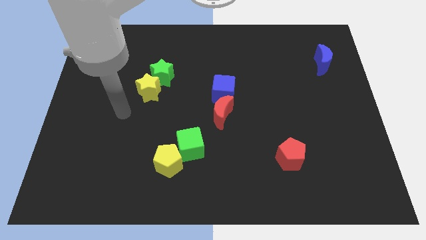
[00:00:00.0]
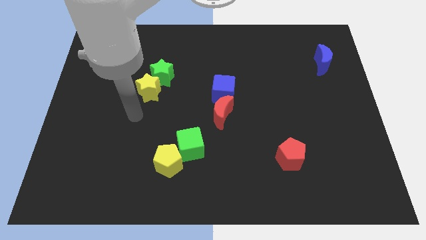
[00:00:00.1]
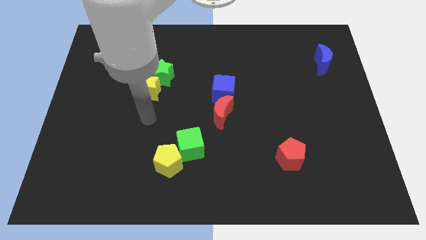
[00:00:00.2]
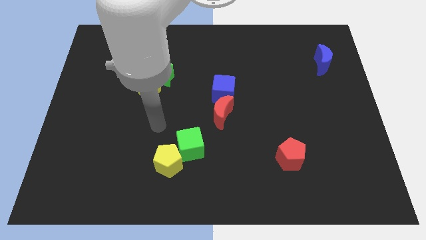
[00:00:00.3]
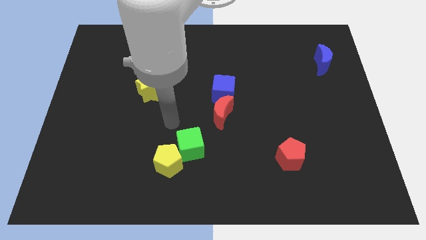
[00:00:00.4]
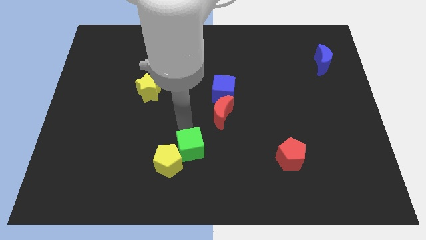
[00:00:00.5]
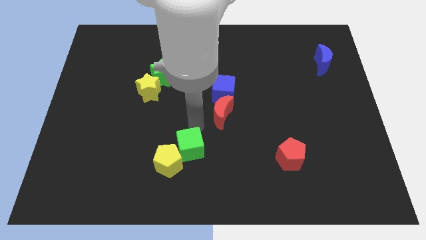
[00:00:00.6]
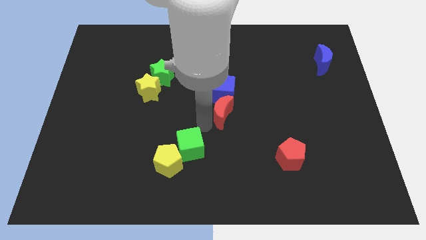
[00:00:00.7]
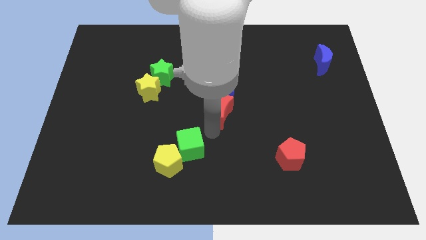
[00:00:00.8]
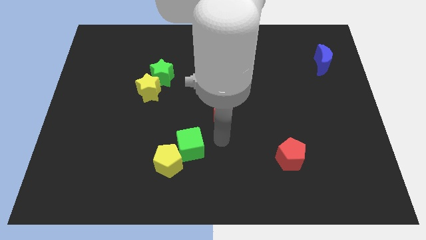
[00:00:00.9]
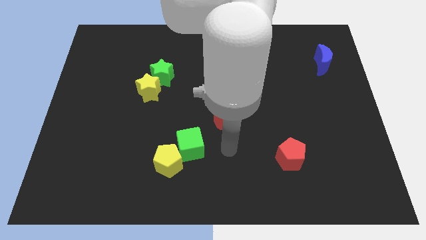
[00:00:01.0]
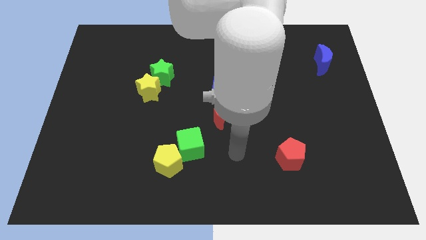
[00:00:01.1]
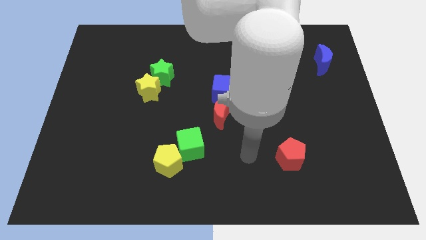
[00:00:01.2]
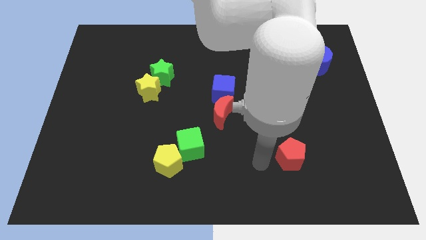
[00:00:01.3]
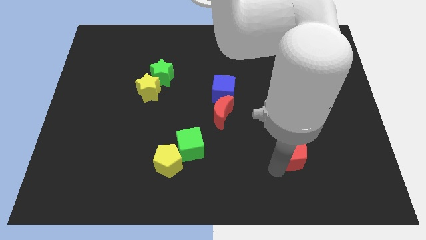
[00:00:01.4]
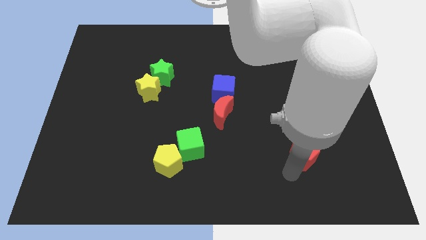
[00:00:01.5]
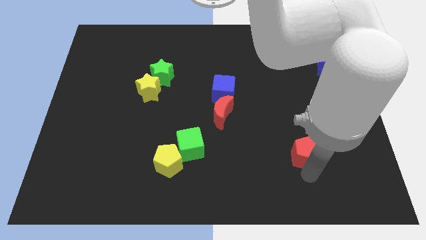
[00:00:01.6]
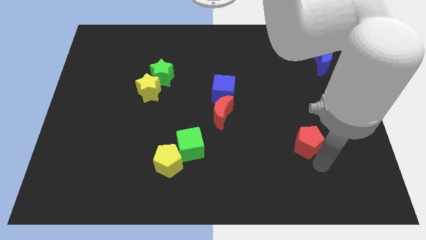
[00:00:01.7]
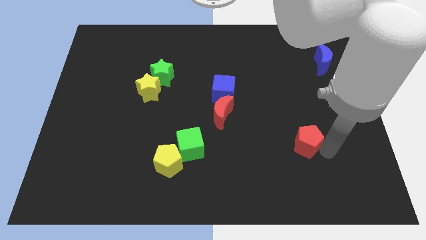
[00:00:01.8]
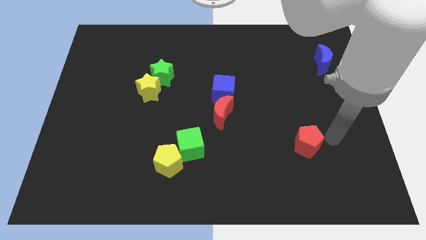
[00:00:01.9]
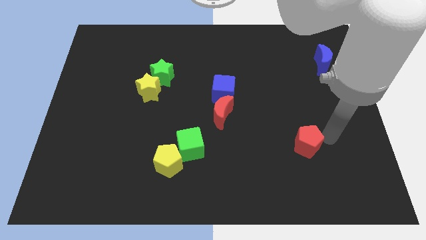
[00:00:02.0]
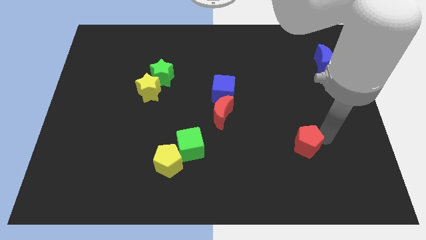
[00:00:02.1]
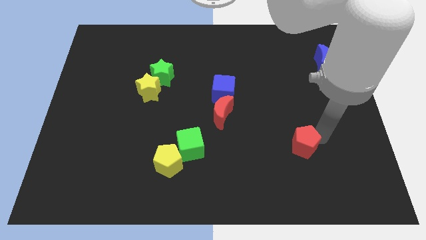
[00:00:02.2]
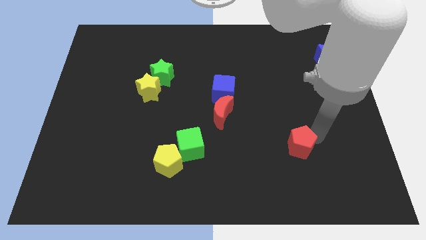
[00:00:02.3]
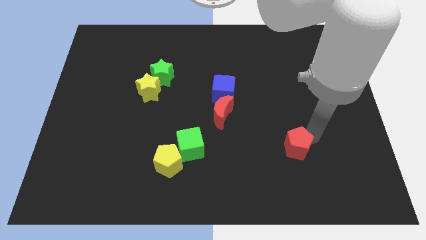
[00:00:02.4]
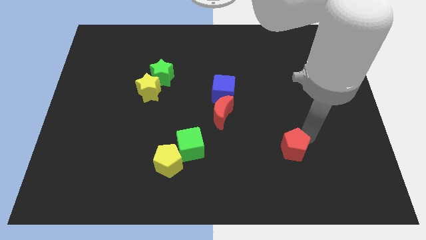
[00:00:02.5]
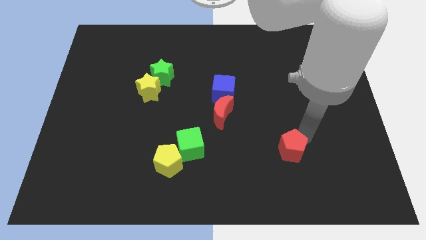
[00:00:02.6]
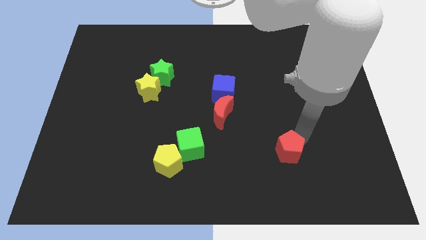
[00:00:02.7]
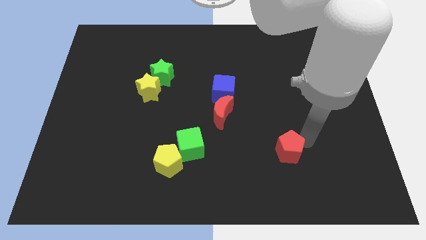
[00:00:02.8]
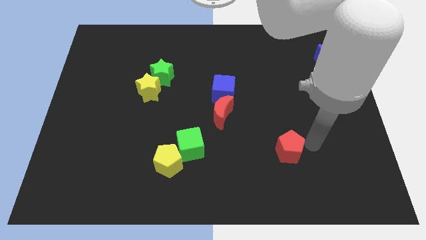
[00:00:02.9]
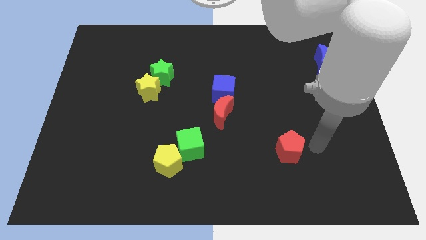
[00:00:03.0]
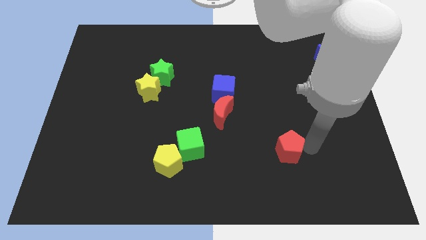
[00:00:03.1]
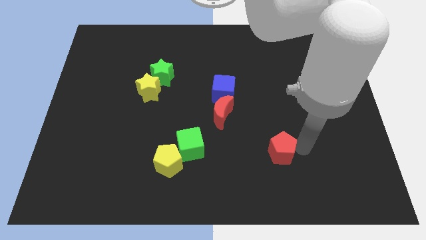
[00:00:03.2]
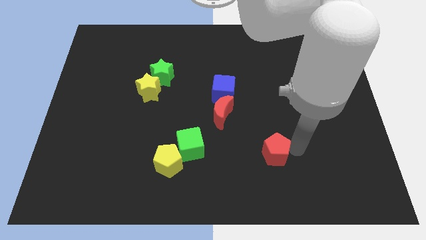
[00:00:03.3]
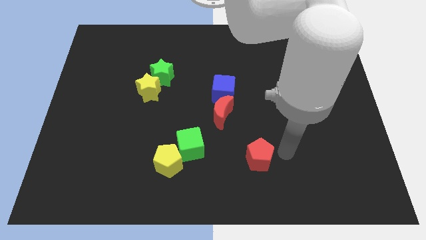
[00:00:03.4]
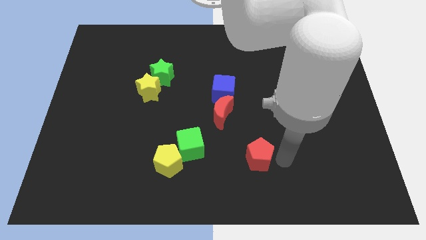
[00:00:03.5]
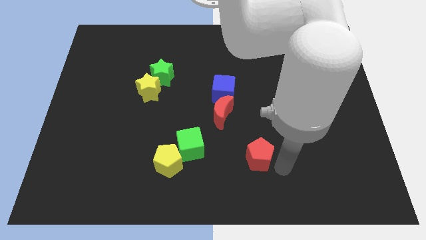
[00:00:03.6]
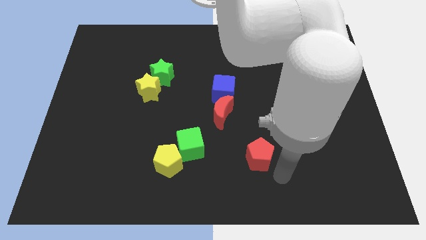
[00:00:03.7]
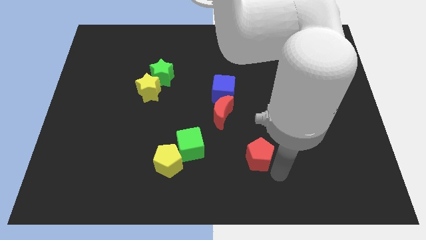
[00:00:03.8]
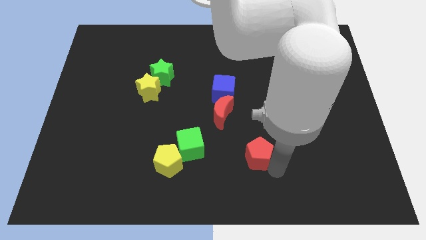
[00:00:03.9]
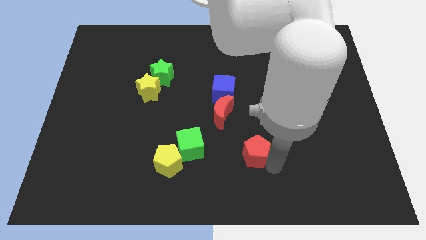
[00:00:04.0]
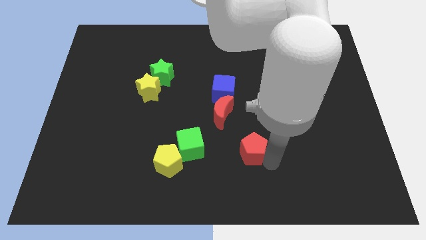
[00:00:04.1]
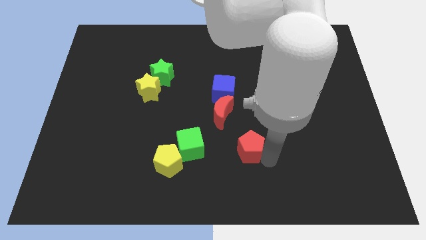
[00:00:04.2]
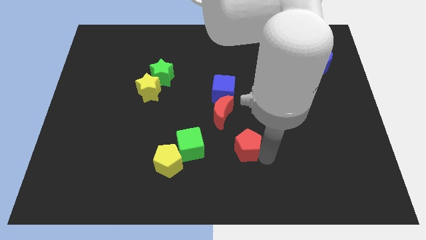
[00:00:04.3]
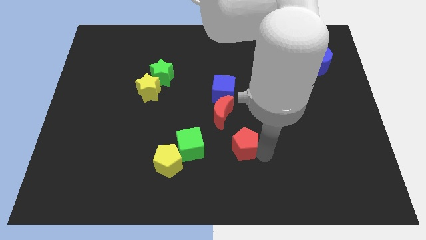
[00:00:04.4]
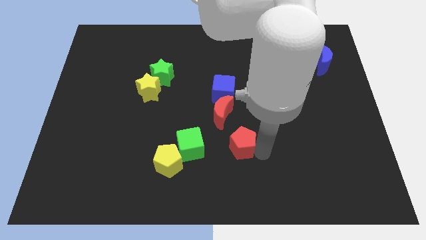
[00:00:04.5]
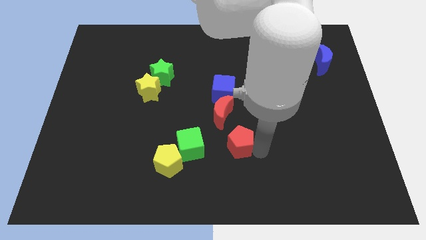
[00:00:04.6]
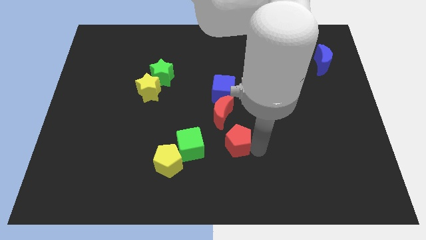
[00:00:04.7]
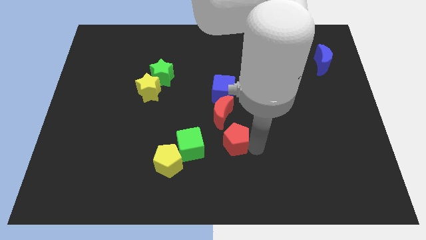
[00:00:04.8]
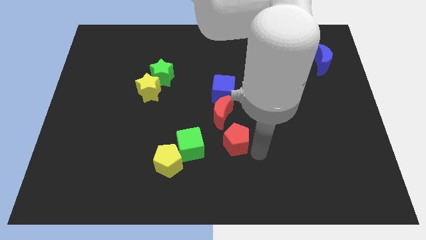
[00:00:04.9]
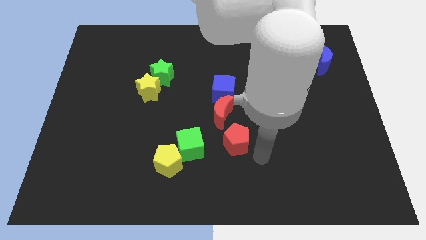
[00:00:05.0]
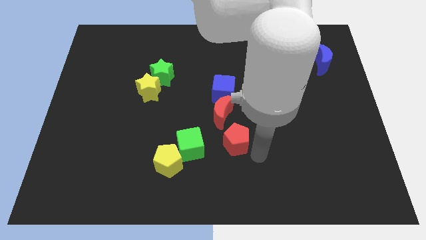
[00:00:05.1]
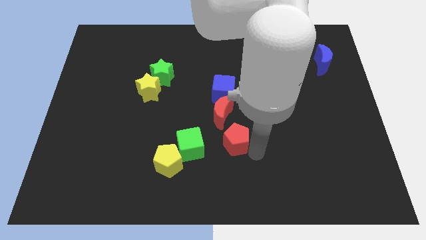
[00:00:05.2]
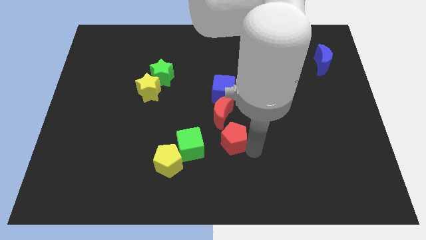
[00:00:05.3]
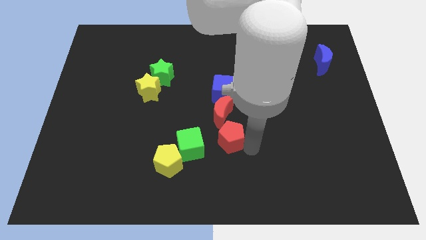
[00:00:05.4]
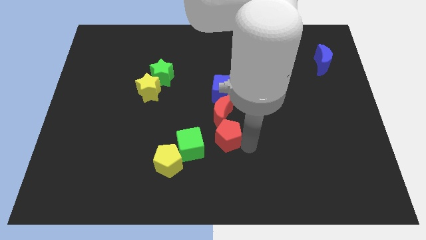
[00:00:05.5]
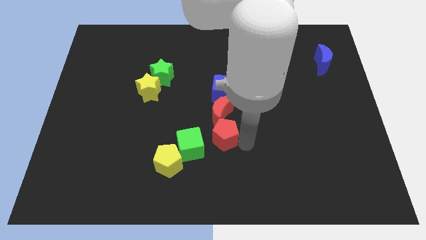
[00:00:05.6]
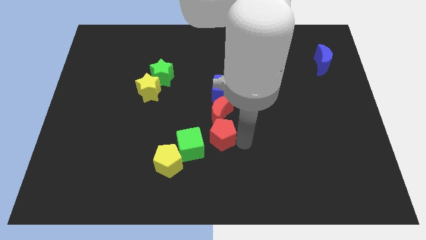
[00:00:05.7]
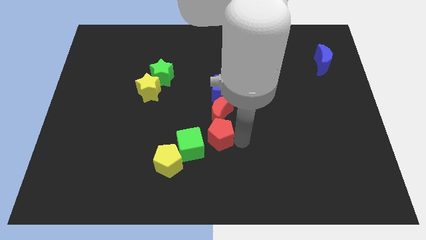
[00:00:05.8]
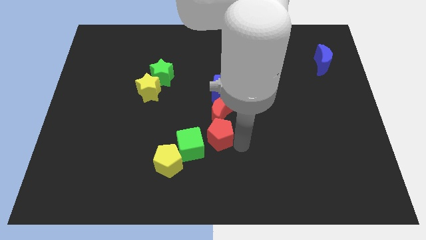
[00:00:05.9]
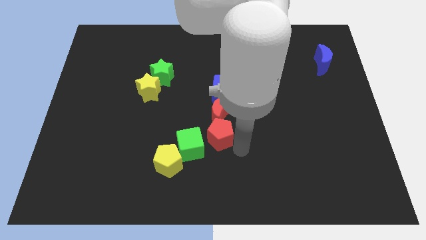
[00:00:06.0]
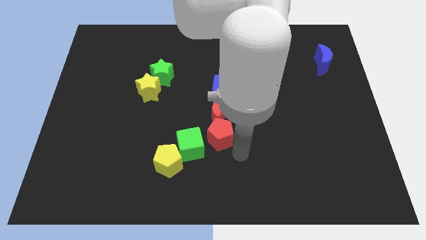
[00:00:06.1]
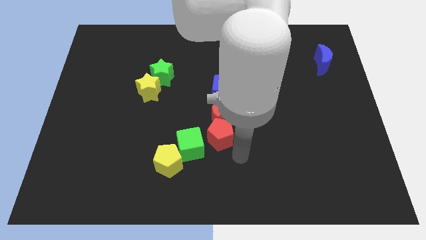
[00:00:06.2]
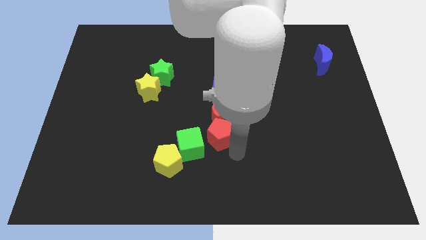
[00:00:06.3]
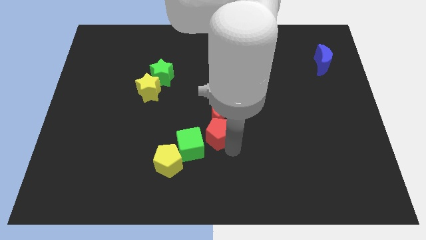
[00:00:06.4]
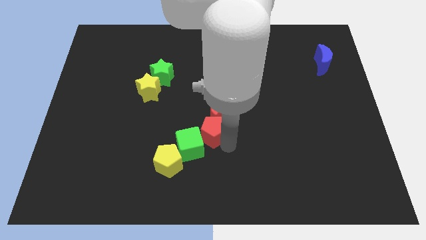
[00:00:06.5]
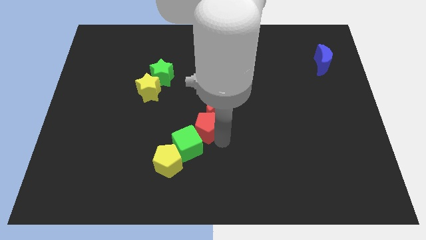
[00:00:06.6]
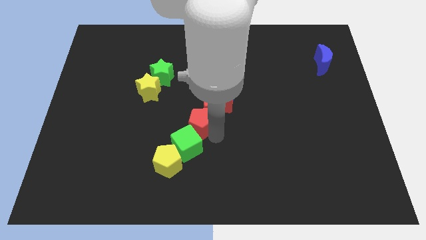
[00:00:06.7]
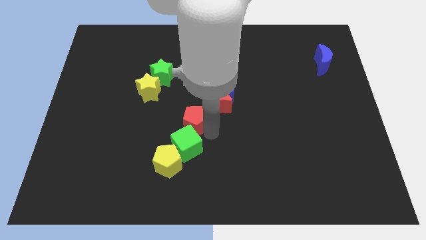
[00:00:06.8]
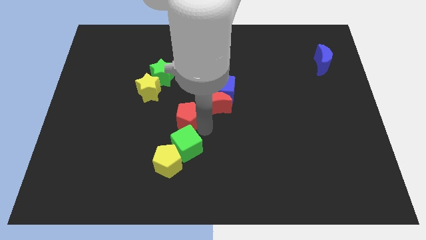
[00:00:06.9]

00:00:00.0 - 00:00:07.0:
put the red pentagon to the bottom right side of the yellow star
